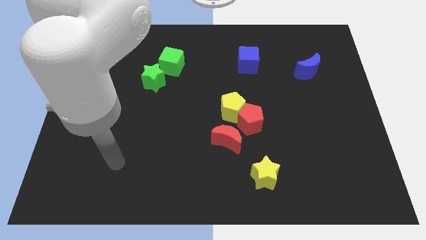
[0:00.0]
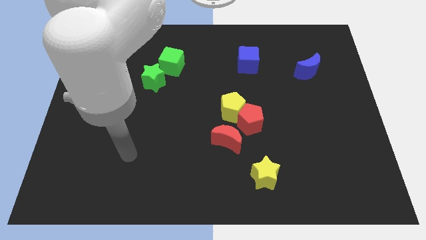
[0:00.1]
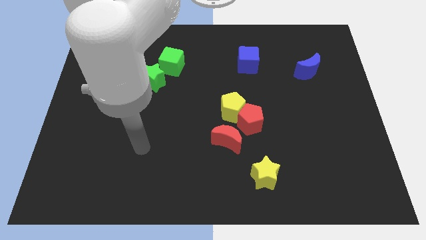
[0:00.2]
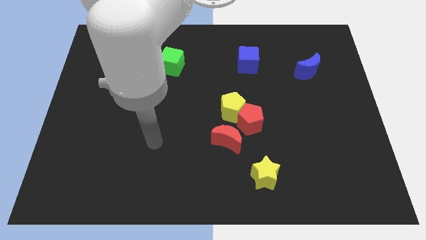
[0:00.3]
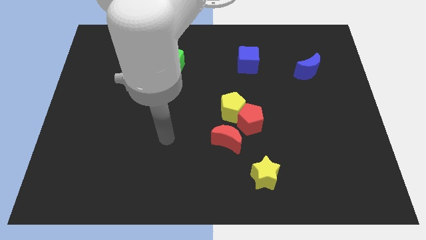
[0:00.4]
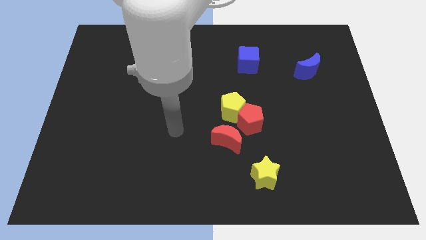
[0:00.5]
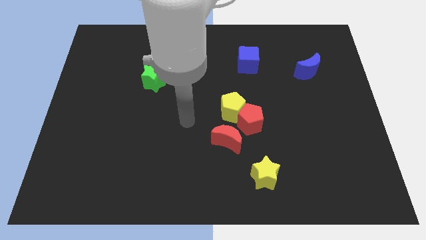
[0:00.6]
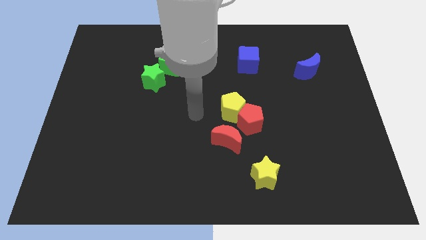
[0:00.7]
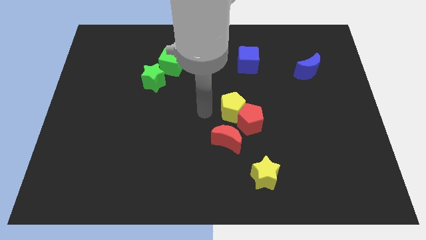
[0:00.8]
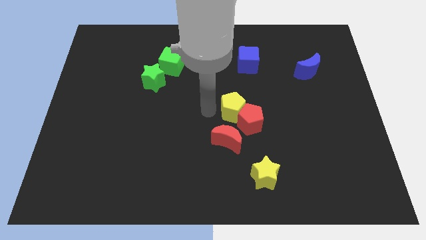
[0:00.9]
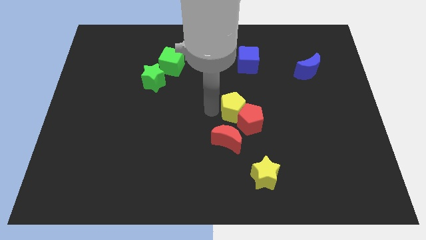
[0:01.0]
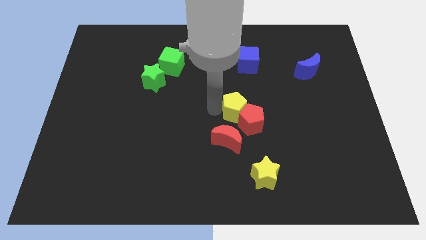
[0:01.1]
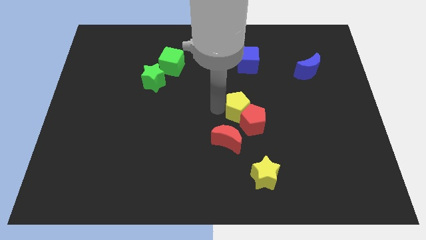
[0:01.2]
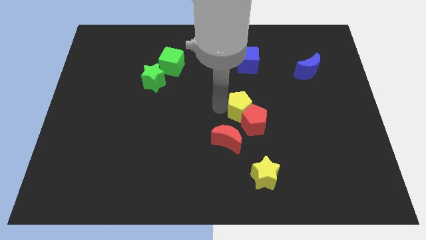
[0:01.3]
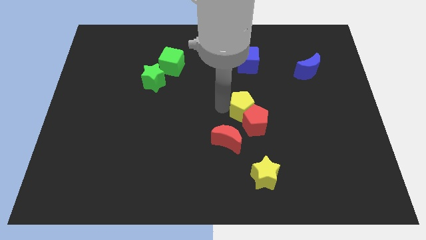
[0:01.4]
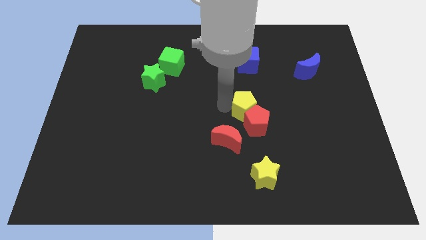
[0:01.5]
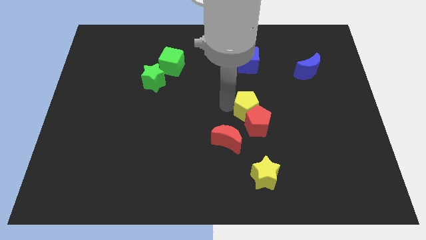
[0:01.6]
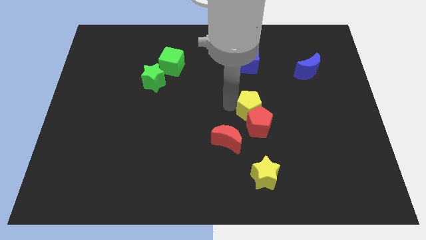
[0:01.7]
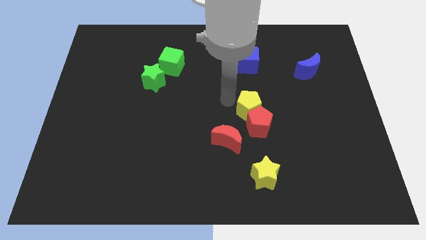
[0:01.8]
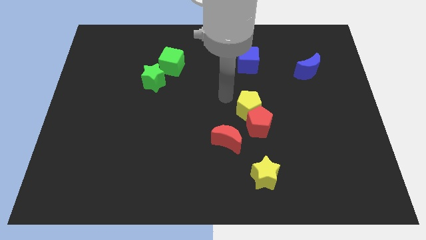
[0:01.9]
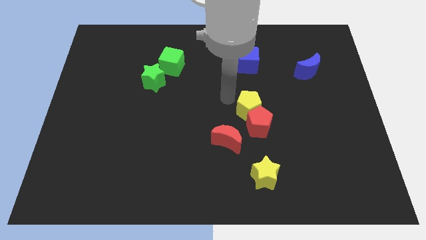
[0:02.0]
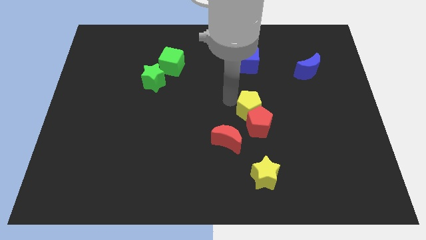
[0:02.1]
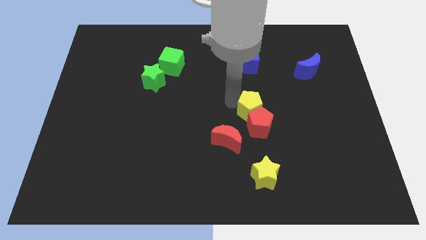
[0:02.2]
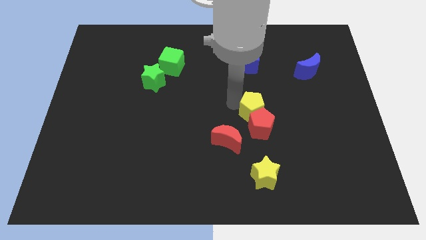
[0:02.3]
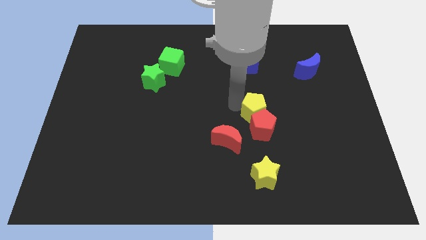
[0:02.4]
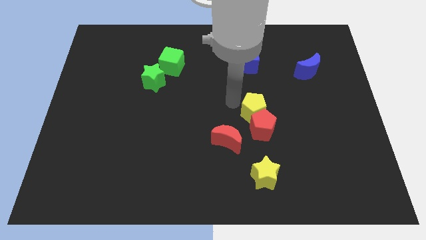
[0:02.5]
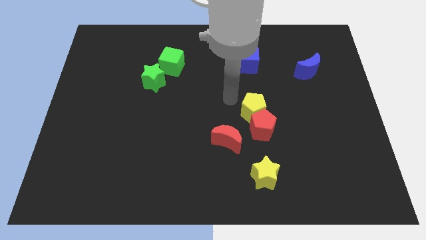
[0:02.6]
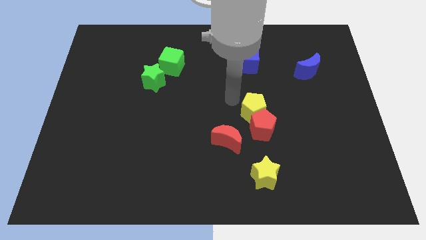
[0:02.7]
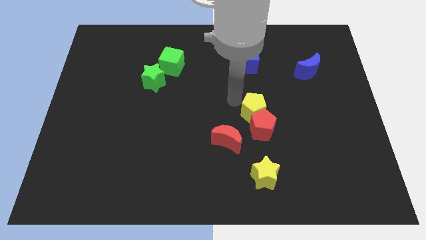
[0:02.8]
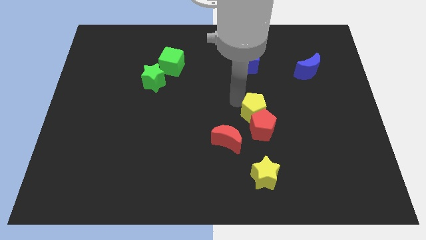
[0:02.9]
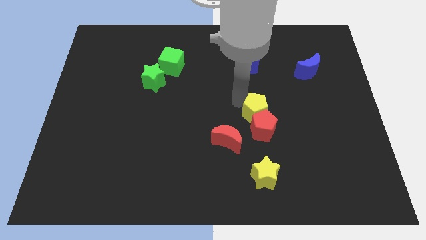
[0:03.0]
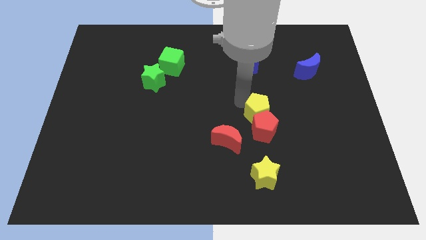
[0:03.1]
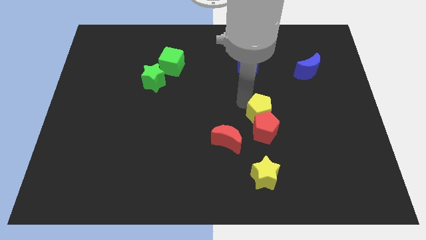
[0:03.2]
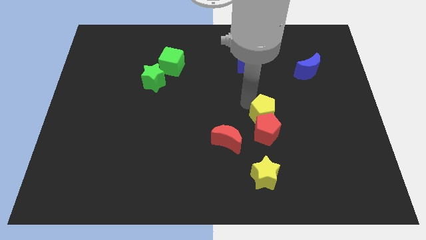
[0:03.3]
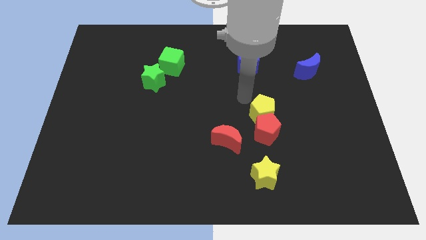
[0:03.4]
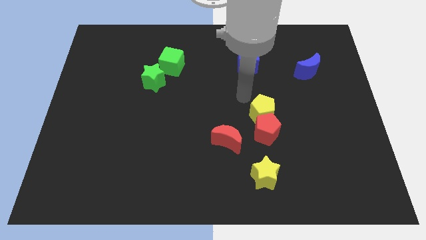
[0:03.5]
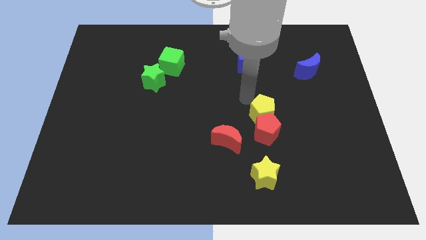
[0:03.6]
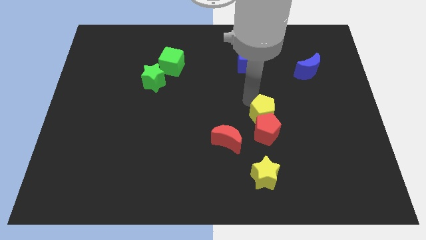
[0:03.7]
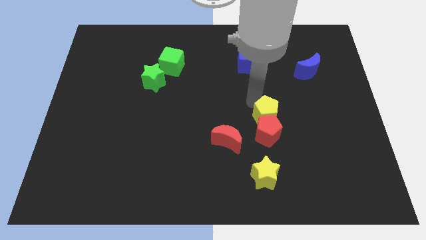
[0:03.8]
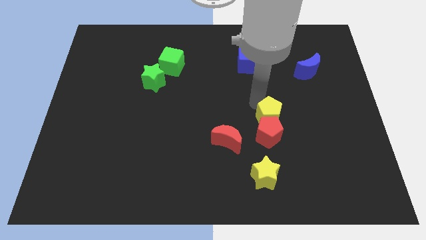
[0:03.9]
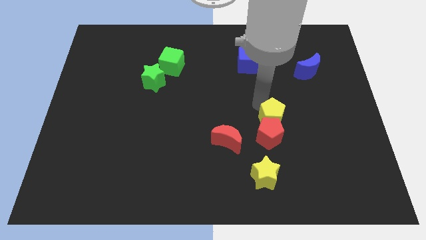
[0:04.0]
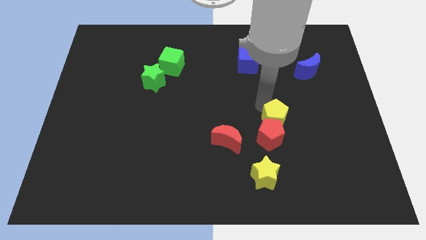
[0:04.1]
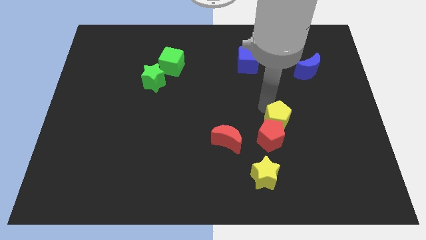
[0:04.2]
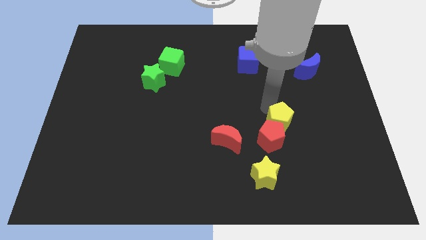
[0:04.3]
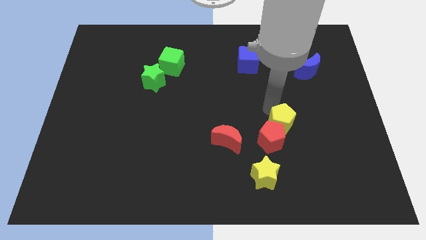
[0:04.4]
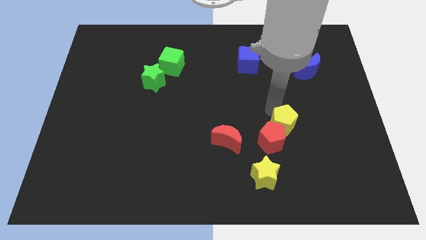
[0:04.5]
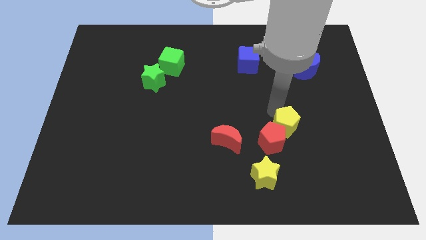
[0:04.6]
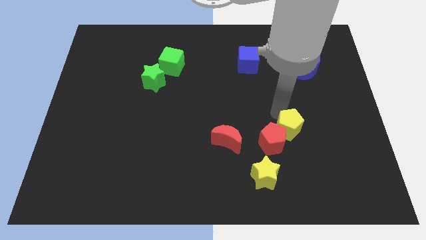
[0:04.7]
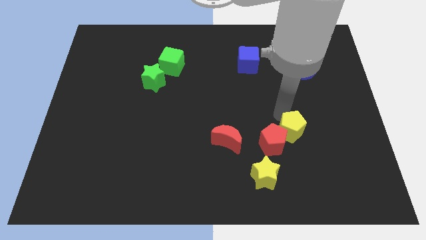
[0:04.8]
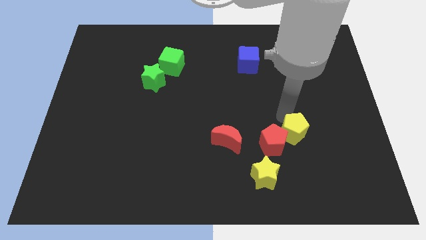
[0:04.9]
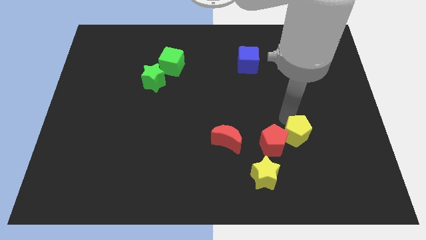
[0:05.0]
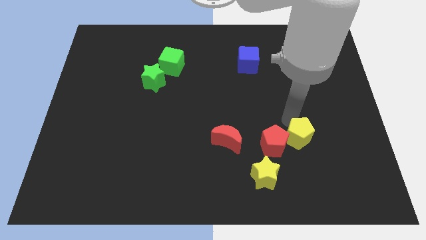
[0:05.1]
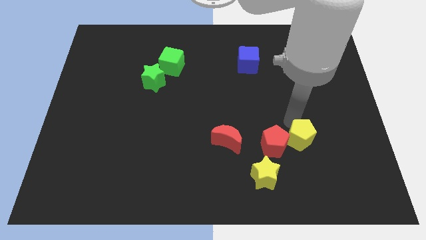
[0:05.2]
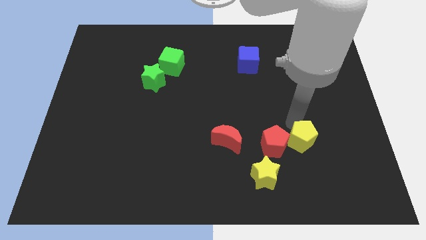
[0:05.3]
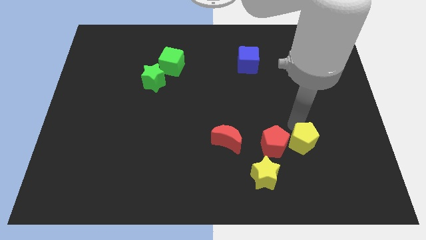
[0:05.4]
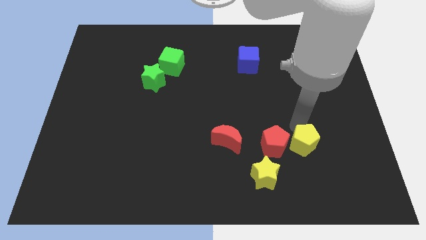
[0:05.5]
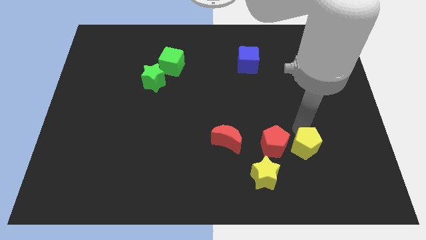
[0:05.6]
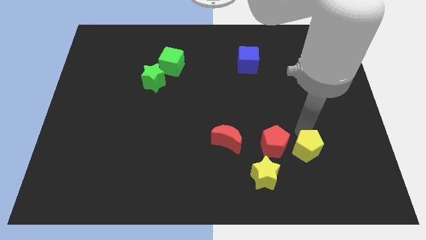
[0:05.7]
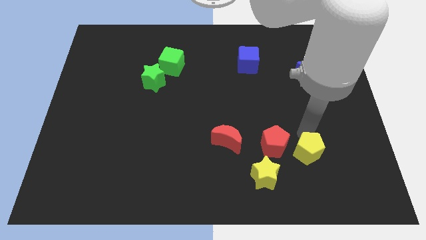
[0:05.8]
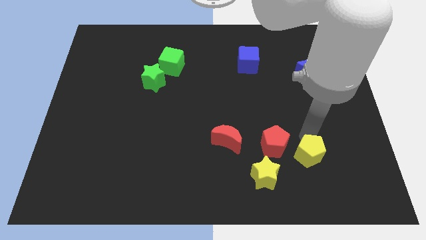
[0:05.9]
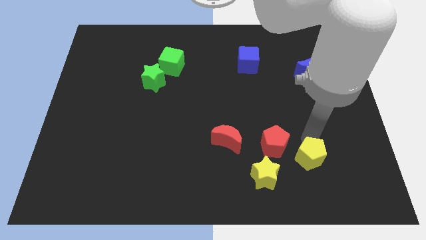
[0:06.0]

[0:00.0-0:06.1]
slide the yellow pentagon right of the yellow star

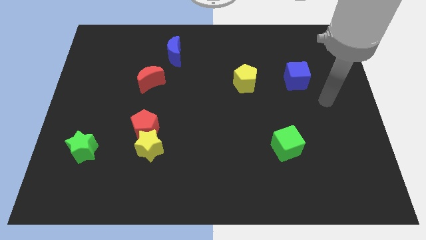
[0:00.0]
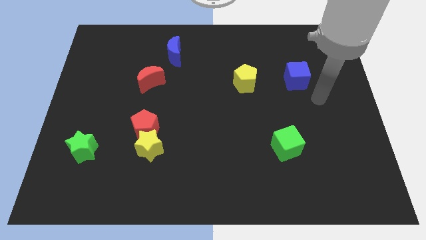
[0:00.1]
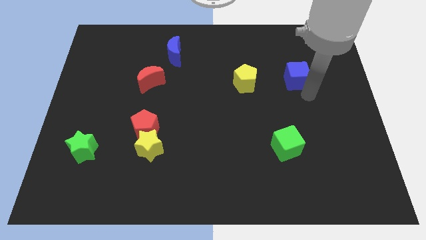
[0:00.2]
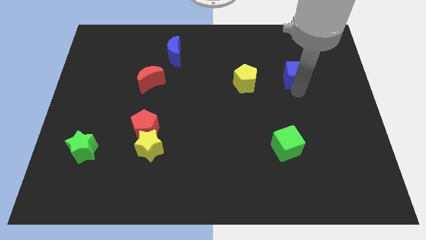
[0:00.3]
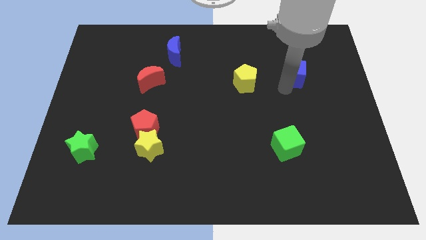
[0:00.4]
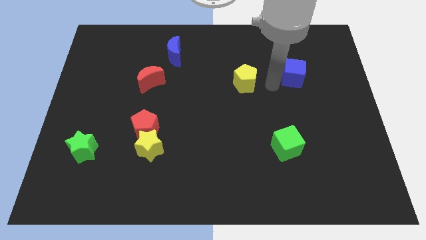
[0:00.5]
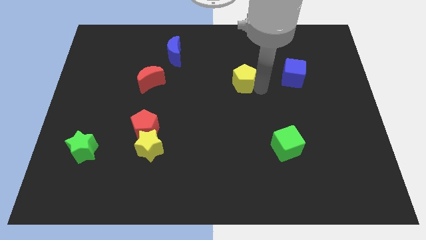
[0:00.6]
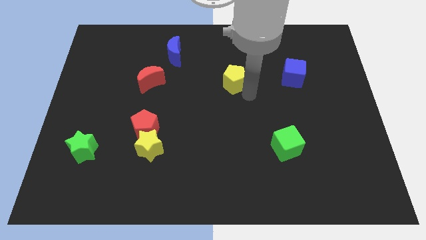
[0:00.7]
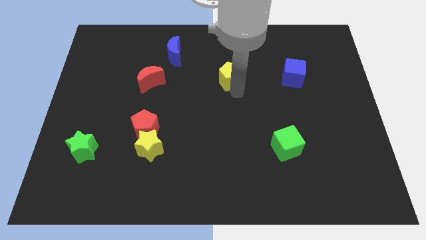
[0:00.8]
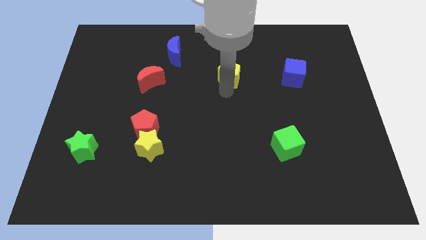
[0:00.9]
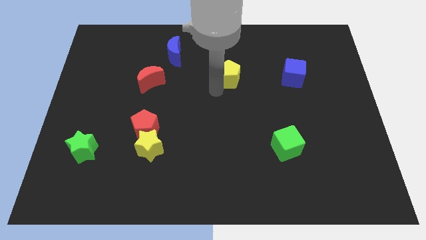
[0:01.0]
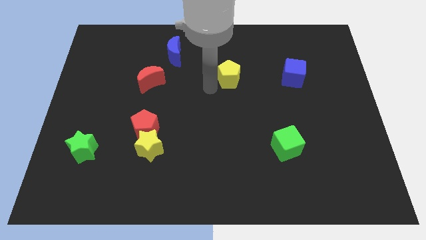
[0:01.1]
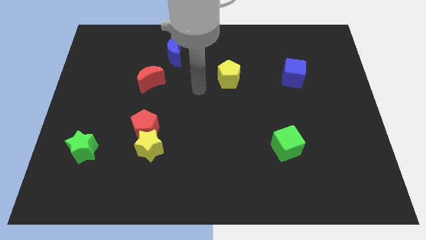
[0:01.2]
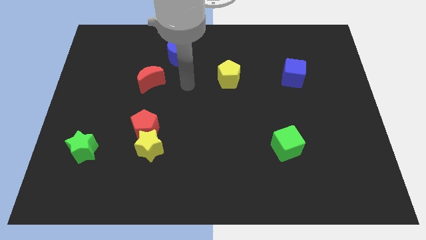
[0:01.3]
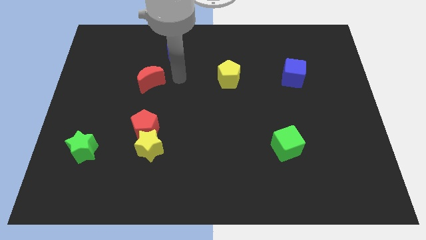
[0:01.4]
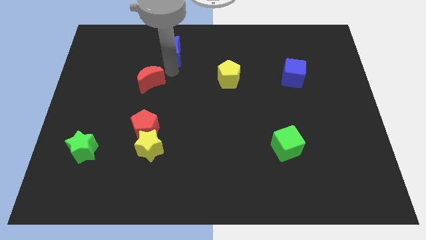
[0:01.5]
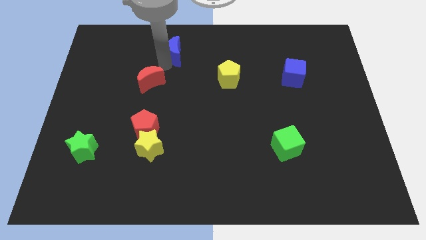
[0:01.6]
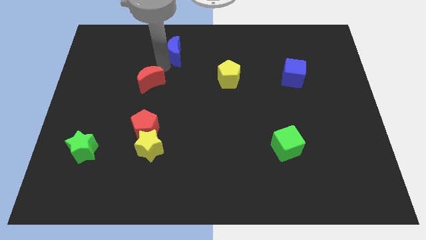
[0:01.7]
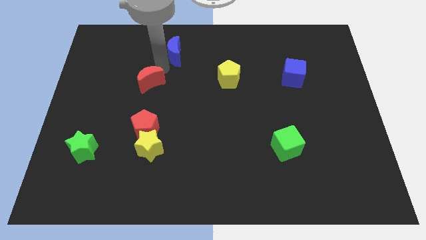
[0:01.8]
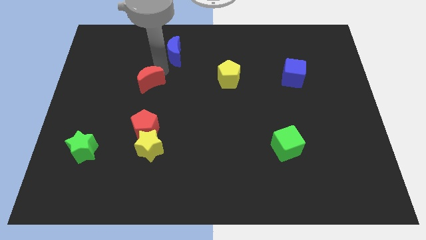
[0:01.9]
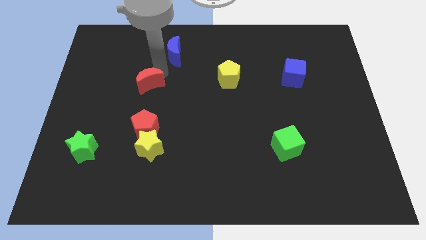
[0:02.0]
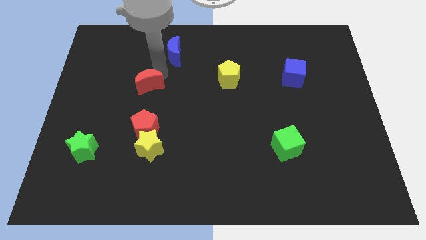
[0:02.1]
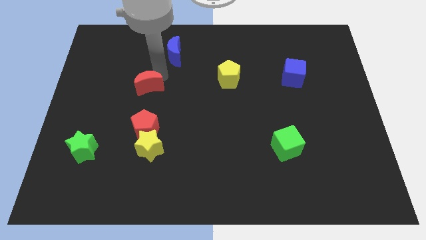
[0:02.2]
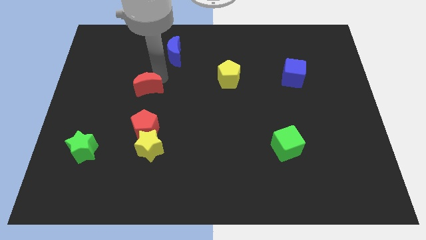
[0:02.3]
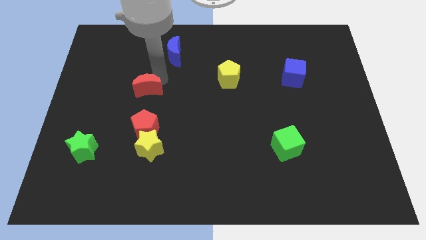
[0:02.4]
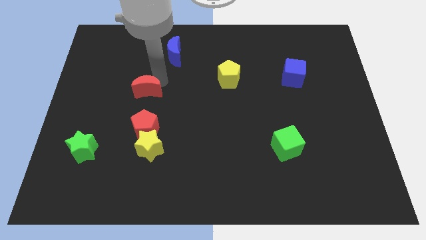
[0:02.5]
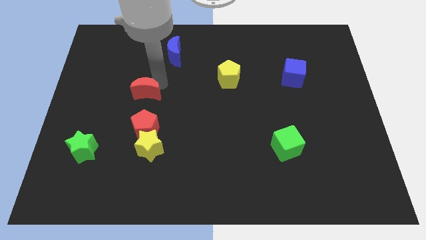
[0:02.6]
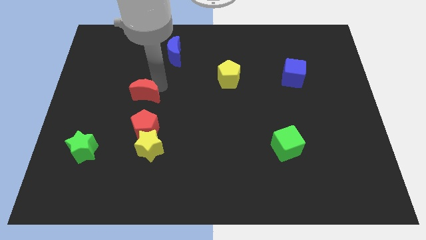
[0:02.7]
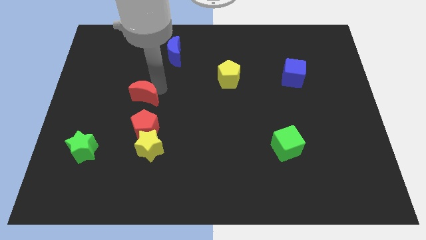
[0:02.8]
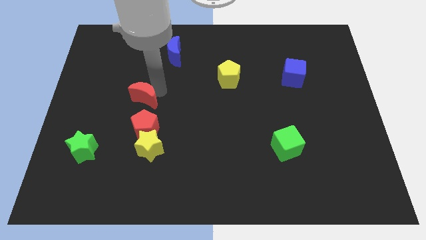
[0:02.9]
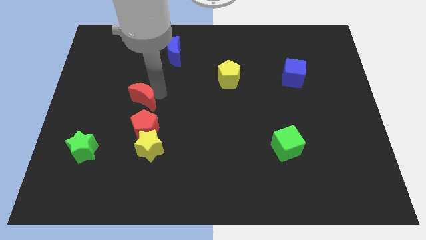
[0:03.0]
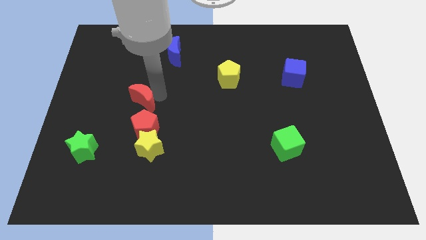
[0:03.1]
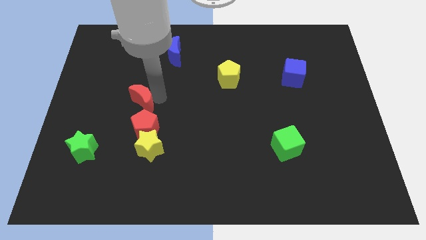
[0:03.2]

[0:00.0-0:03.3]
put the red moon diagonally up and to the left of the red pentagon
